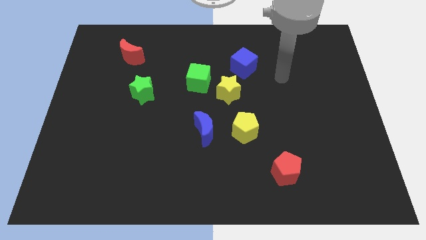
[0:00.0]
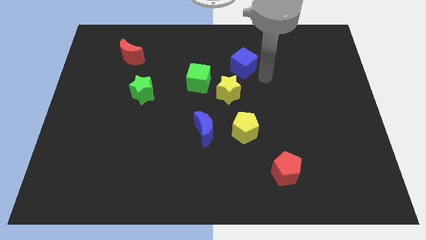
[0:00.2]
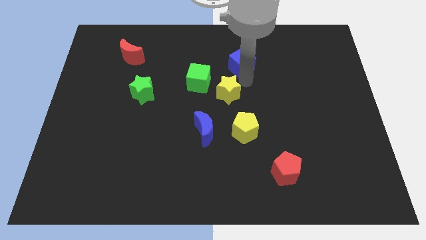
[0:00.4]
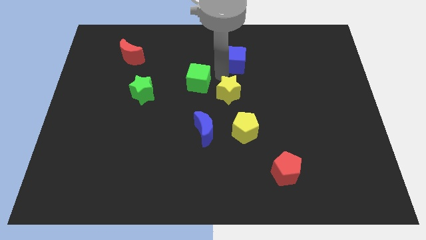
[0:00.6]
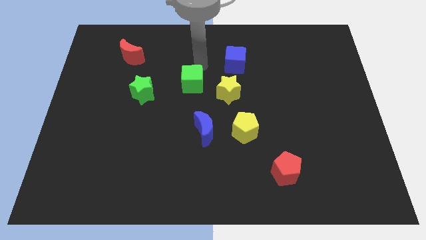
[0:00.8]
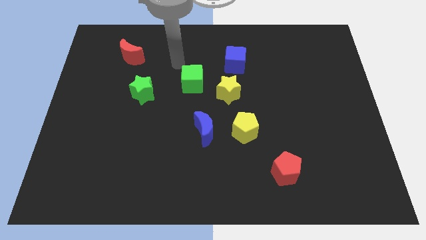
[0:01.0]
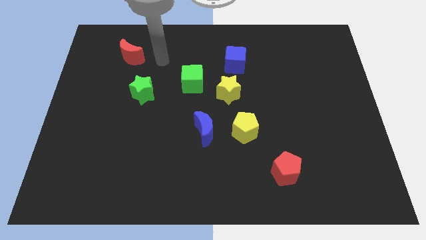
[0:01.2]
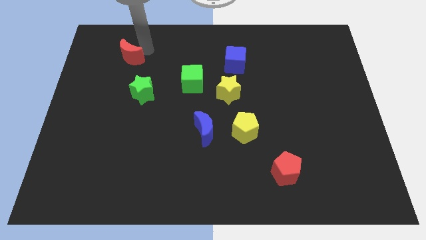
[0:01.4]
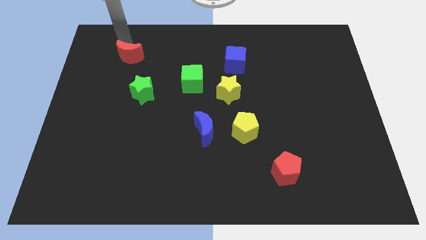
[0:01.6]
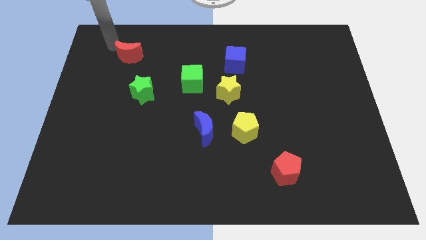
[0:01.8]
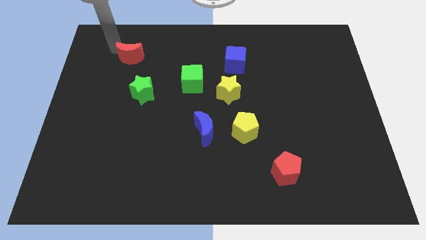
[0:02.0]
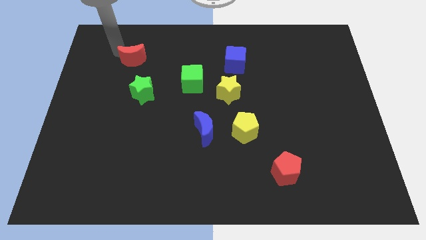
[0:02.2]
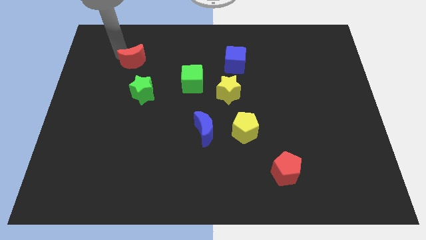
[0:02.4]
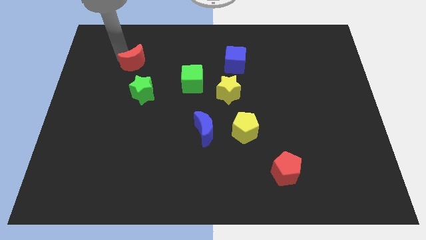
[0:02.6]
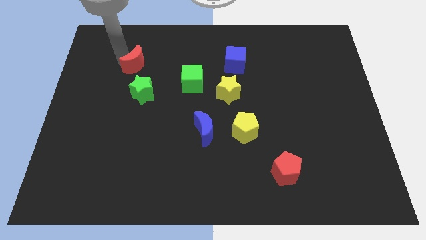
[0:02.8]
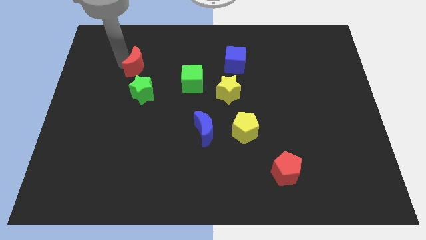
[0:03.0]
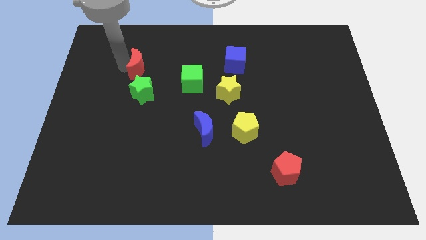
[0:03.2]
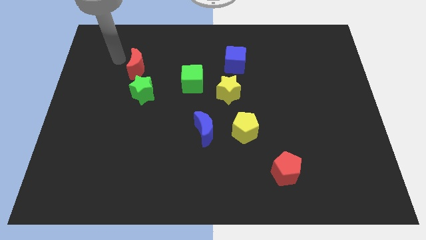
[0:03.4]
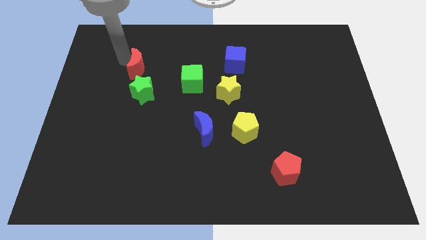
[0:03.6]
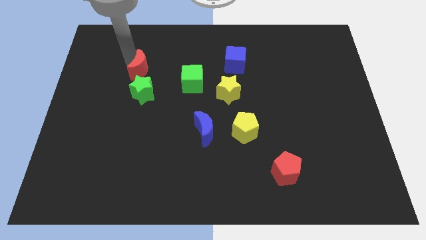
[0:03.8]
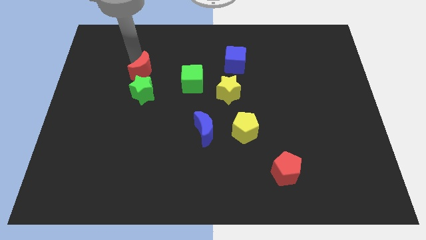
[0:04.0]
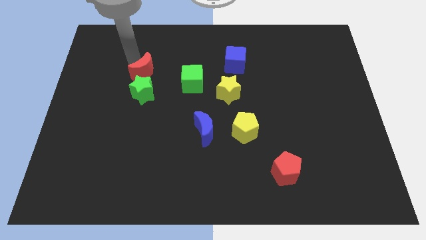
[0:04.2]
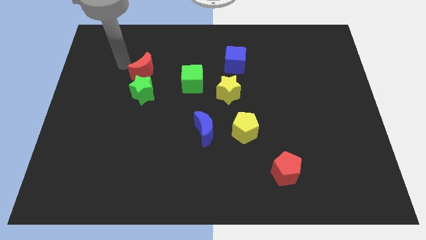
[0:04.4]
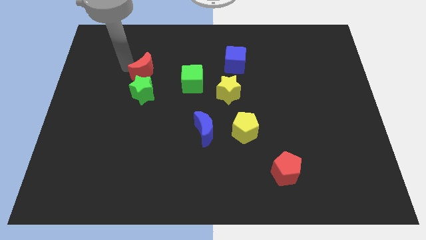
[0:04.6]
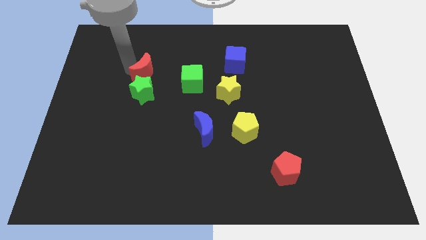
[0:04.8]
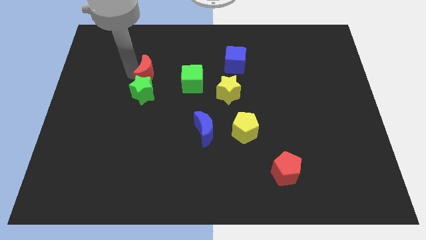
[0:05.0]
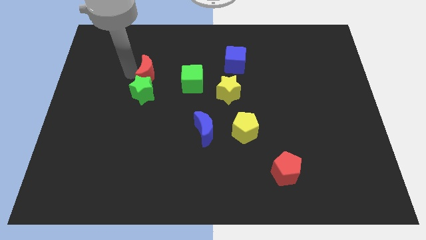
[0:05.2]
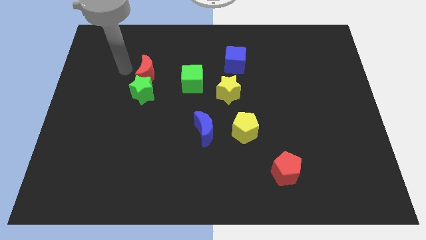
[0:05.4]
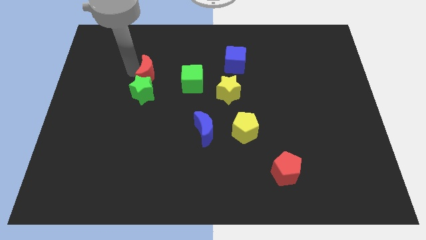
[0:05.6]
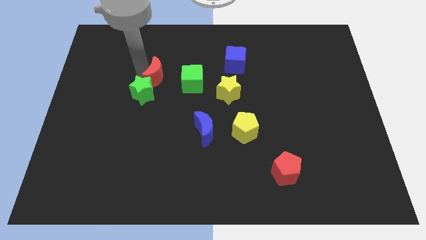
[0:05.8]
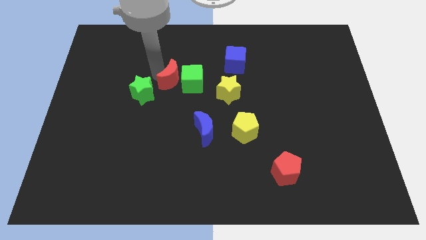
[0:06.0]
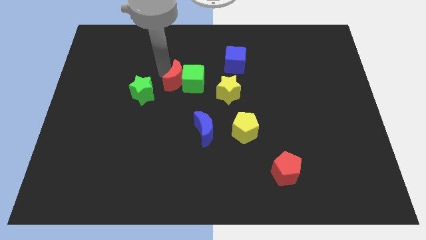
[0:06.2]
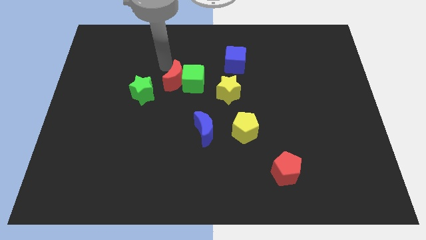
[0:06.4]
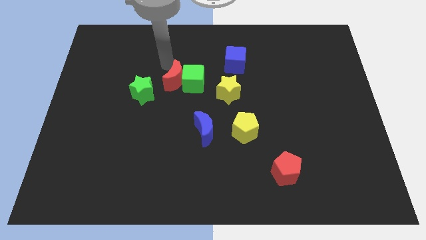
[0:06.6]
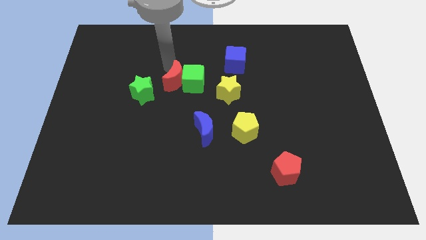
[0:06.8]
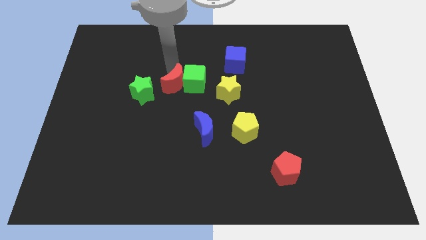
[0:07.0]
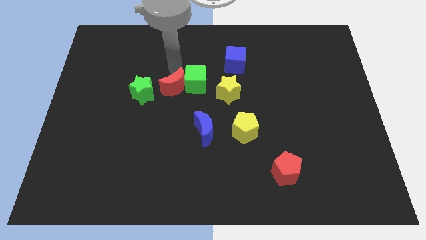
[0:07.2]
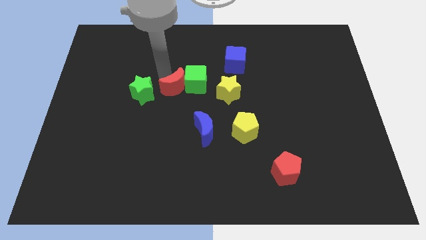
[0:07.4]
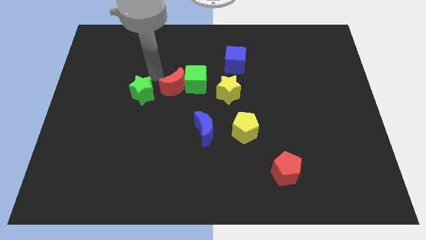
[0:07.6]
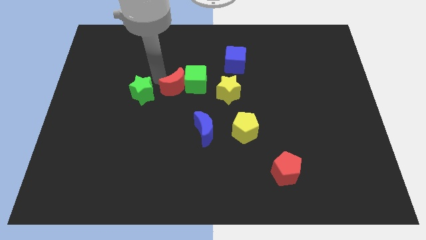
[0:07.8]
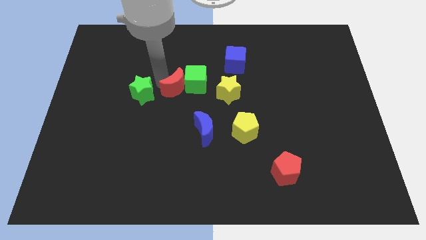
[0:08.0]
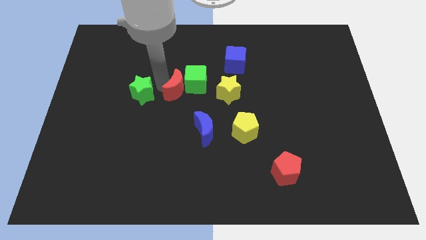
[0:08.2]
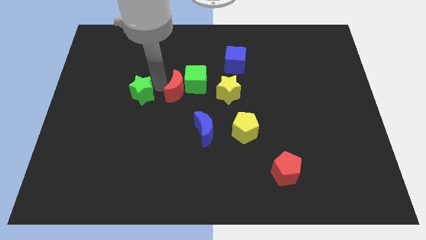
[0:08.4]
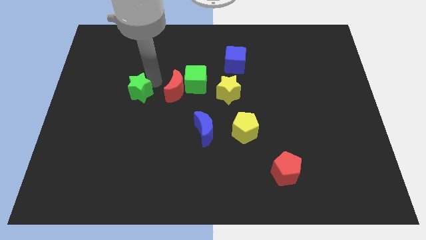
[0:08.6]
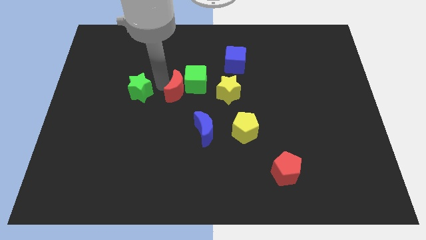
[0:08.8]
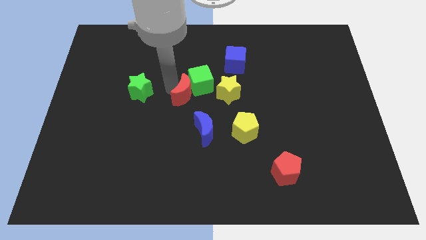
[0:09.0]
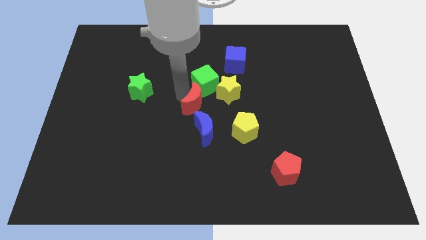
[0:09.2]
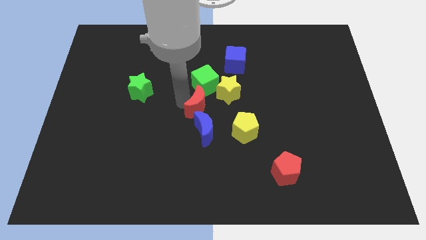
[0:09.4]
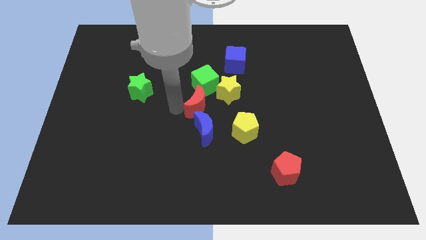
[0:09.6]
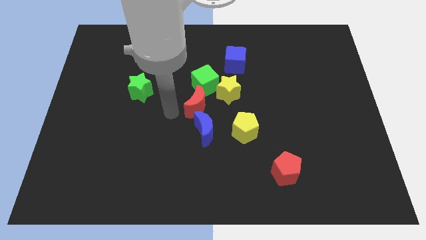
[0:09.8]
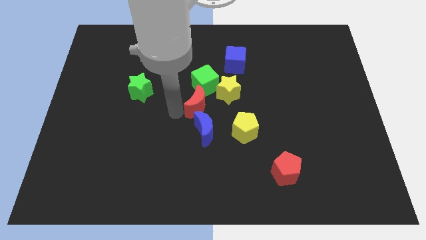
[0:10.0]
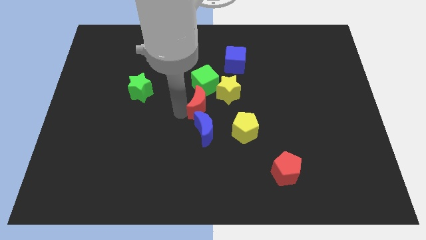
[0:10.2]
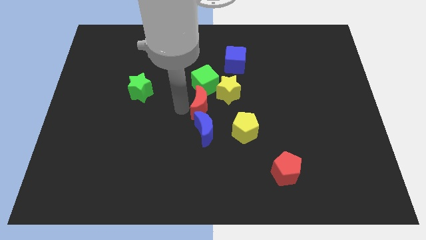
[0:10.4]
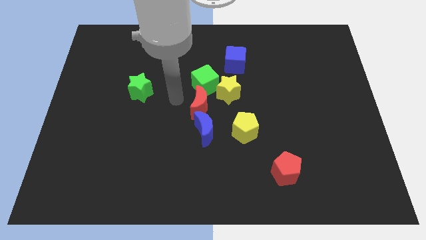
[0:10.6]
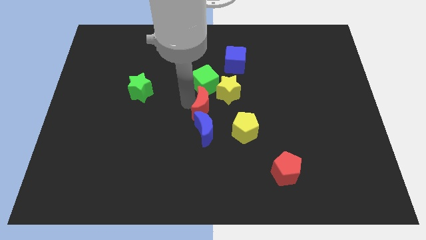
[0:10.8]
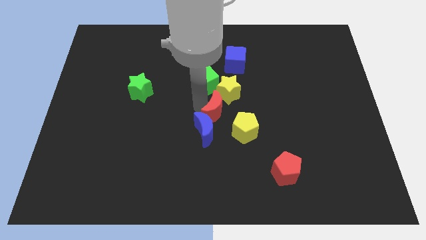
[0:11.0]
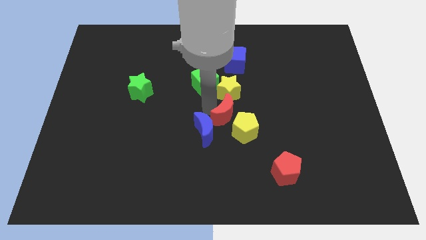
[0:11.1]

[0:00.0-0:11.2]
move the red moon close to the yellow pentagon
